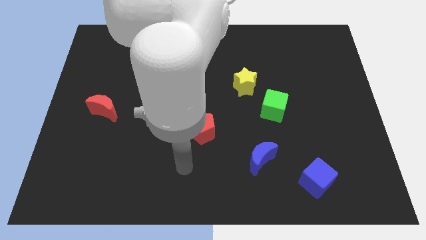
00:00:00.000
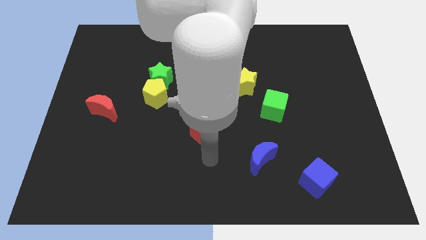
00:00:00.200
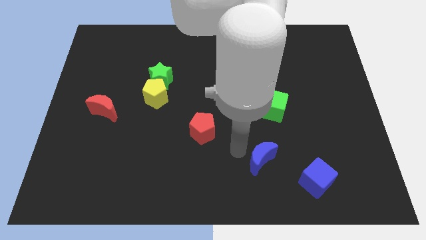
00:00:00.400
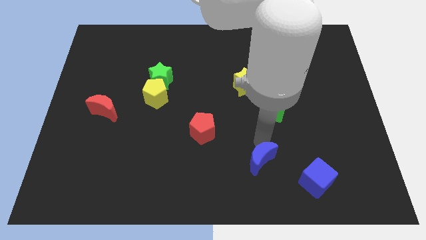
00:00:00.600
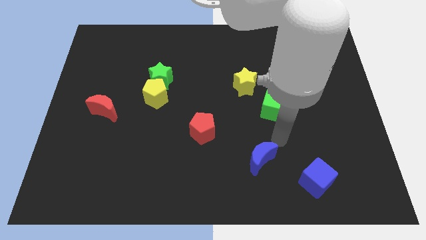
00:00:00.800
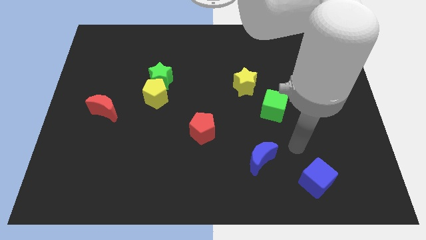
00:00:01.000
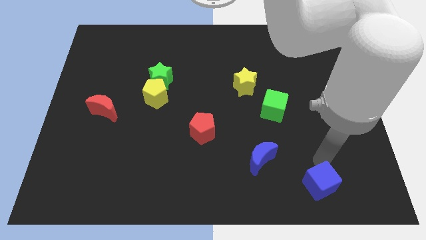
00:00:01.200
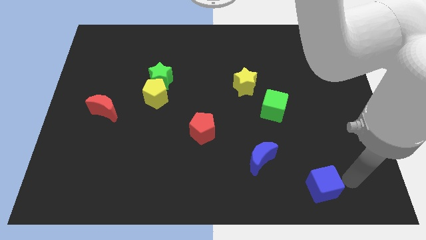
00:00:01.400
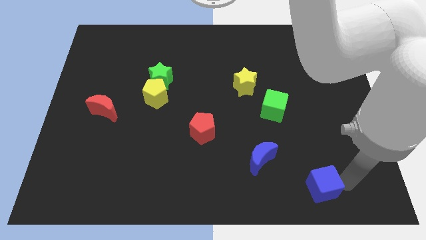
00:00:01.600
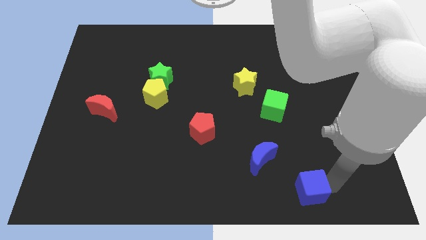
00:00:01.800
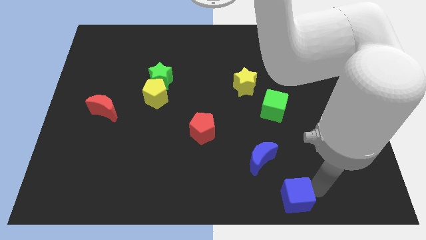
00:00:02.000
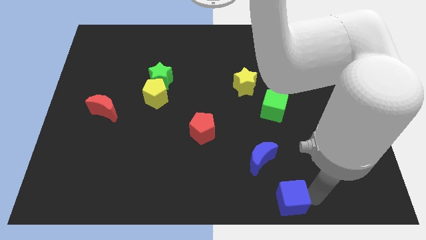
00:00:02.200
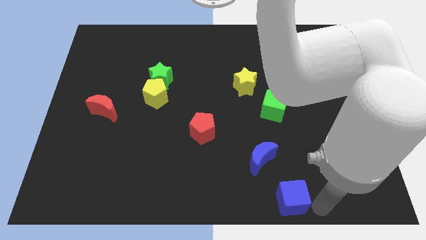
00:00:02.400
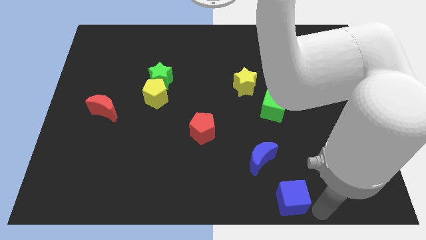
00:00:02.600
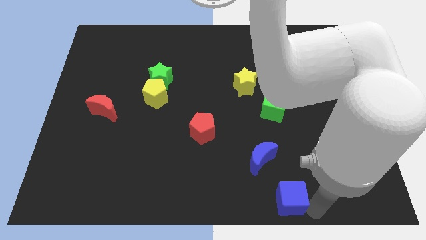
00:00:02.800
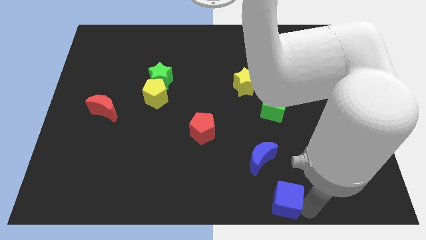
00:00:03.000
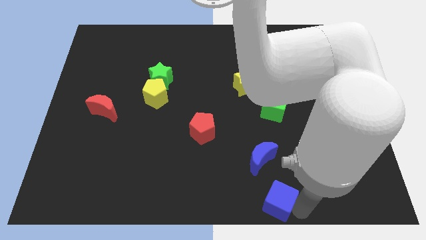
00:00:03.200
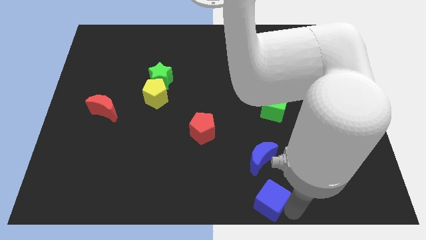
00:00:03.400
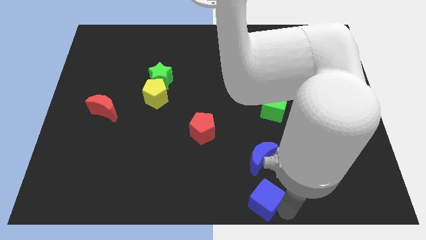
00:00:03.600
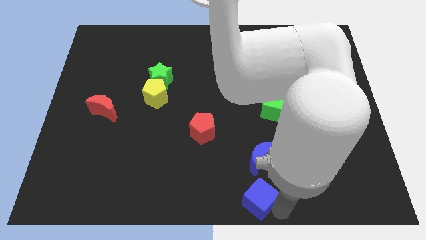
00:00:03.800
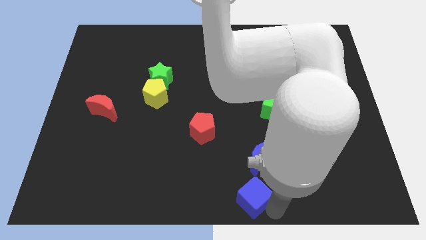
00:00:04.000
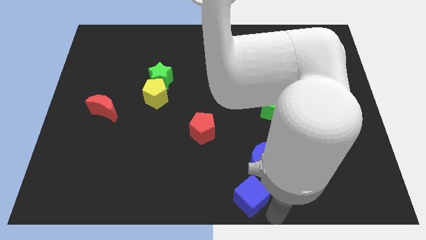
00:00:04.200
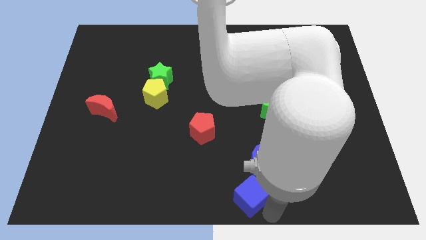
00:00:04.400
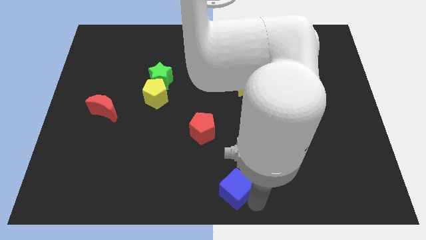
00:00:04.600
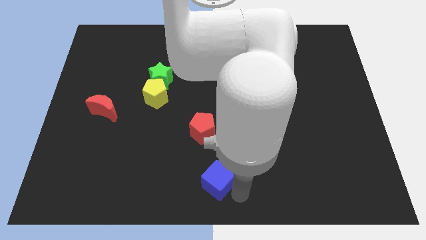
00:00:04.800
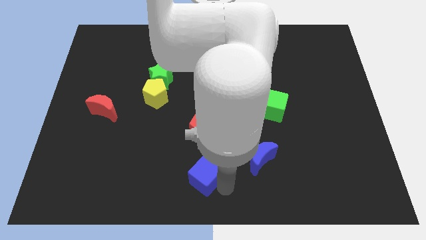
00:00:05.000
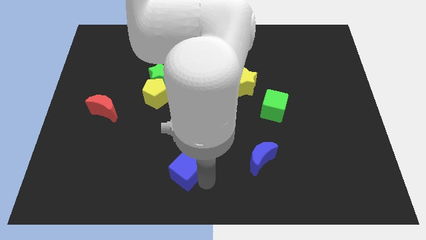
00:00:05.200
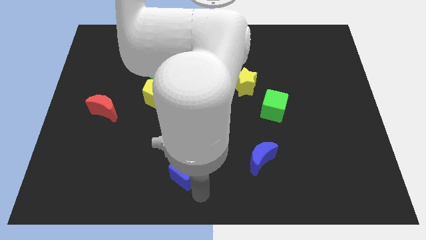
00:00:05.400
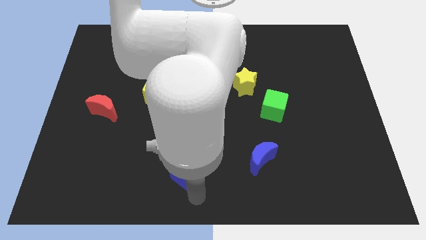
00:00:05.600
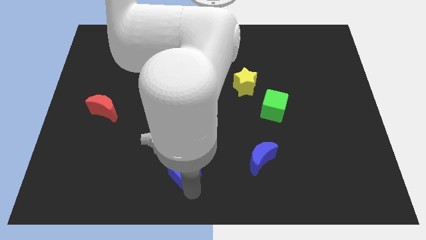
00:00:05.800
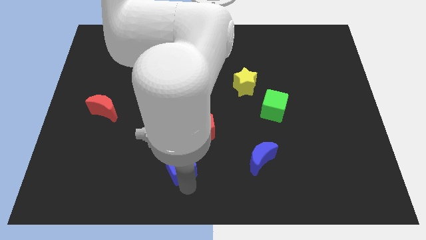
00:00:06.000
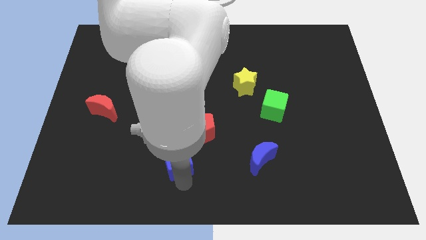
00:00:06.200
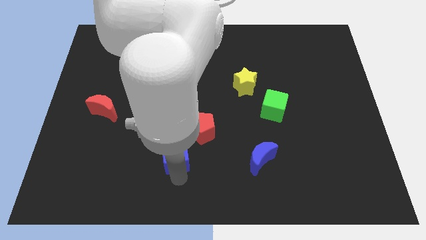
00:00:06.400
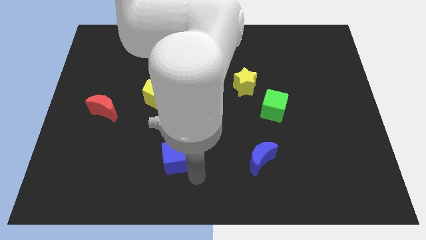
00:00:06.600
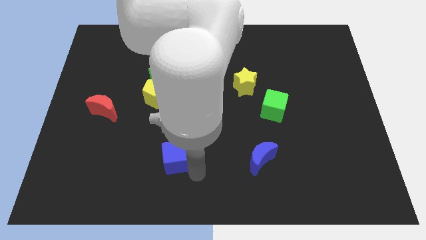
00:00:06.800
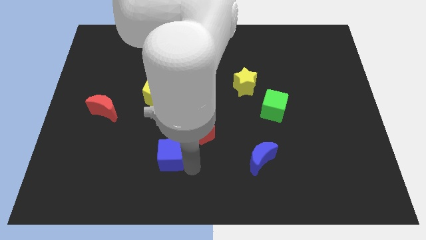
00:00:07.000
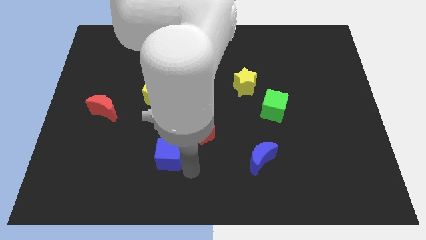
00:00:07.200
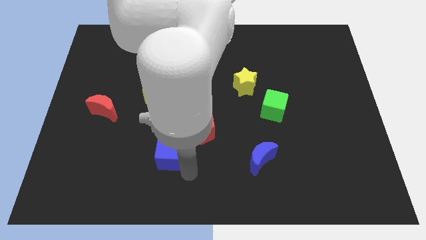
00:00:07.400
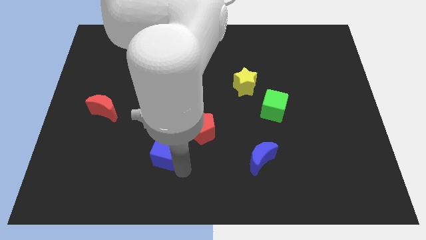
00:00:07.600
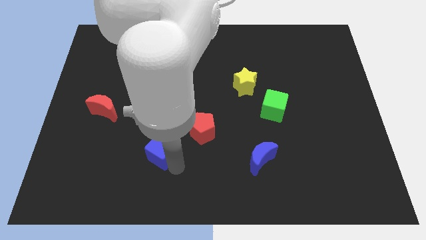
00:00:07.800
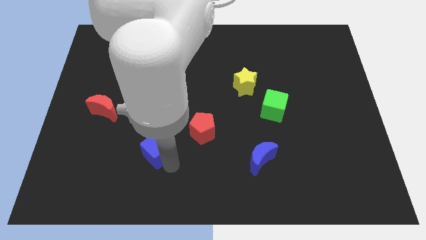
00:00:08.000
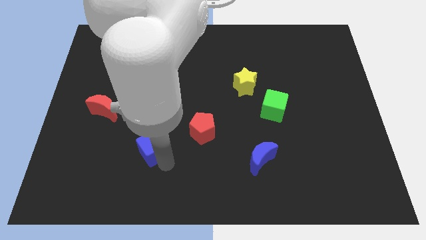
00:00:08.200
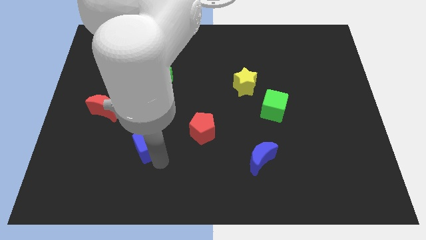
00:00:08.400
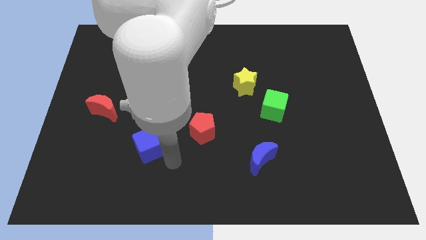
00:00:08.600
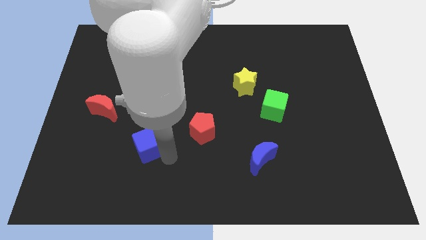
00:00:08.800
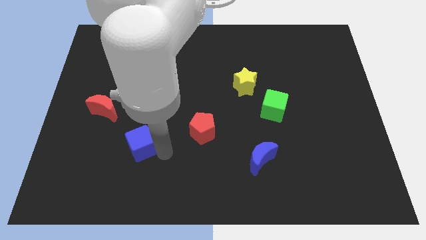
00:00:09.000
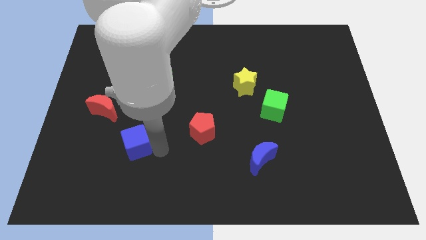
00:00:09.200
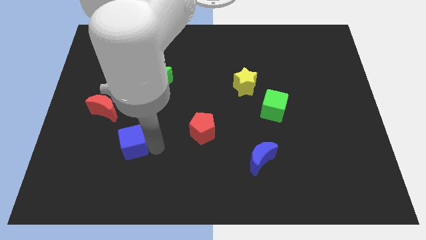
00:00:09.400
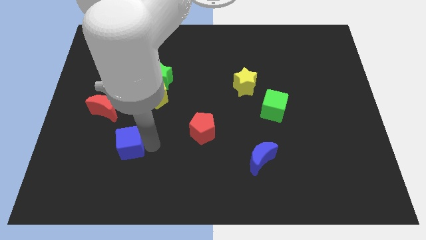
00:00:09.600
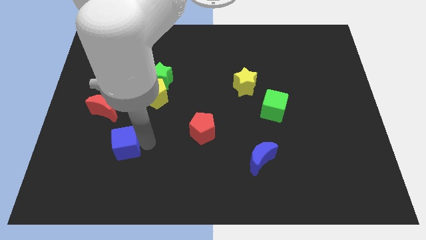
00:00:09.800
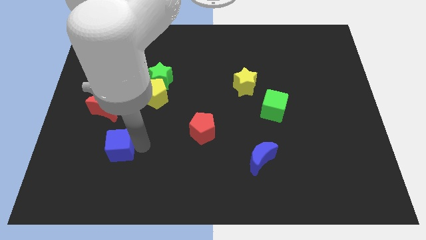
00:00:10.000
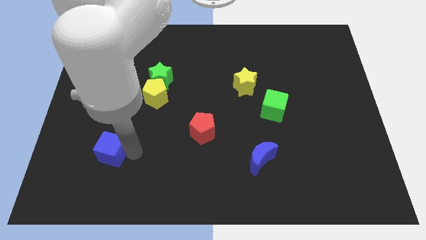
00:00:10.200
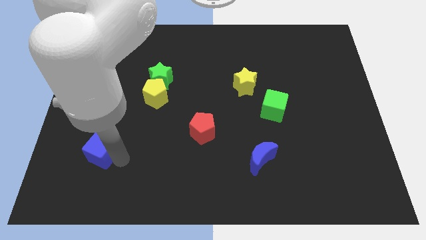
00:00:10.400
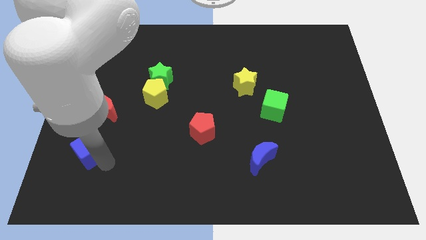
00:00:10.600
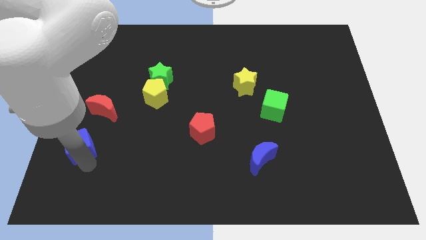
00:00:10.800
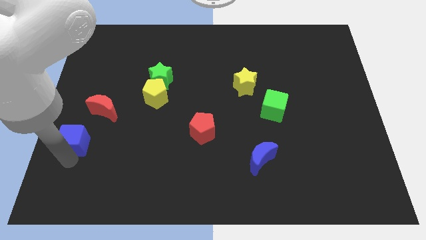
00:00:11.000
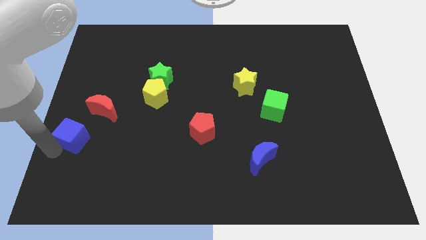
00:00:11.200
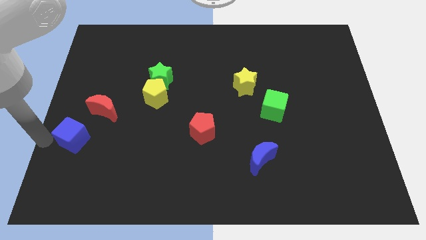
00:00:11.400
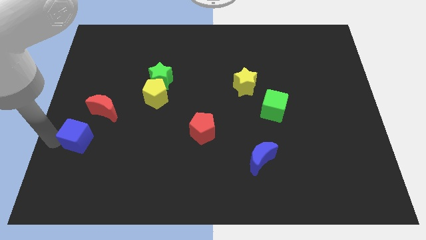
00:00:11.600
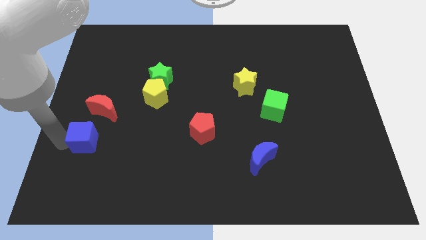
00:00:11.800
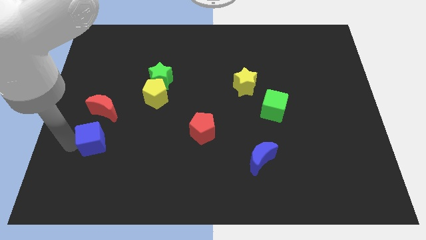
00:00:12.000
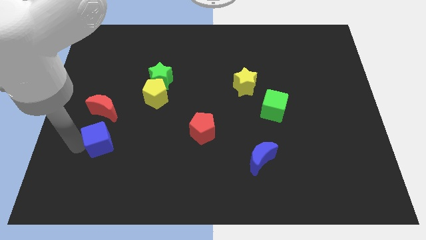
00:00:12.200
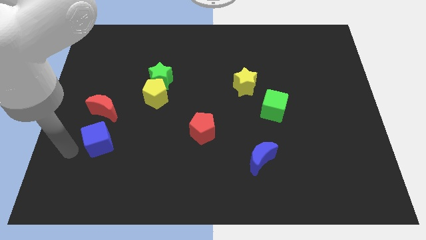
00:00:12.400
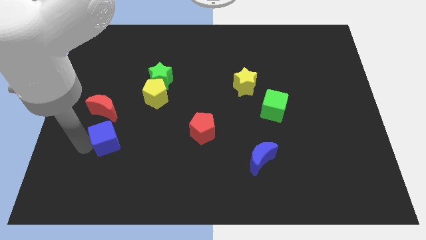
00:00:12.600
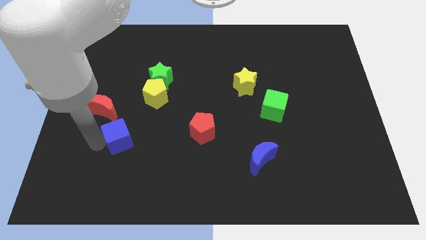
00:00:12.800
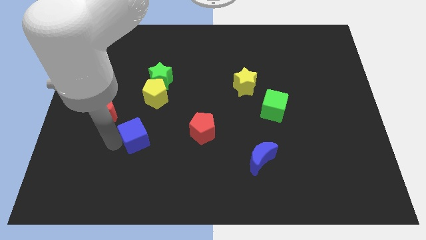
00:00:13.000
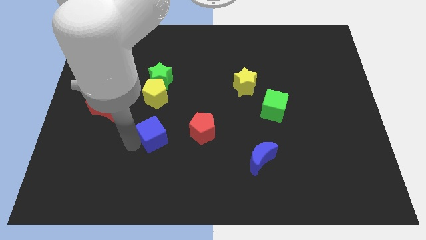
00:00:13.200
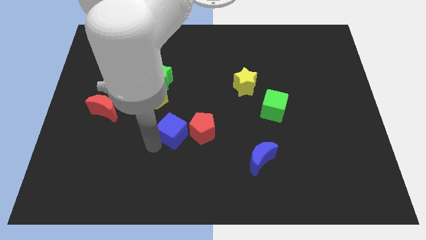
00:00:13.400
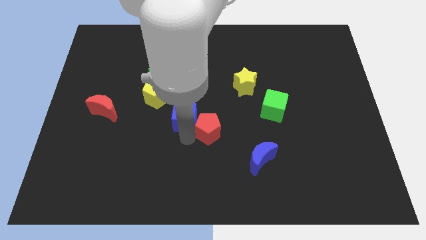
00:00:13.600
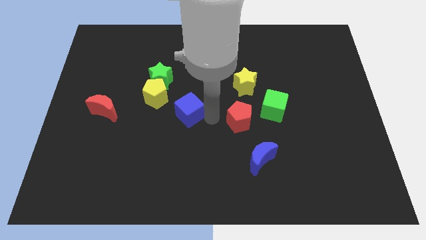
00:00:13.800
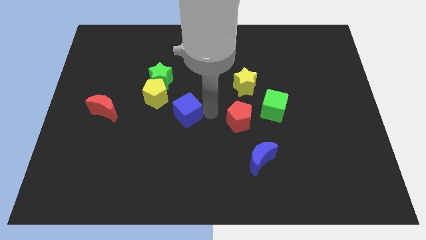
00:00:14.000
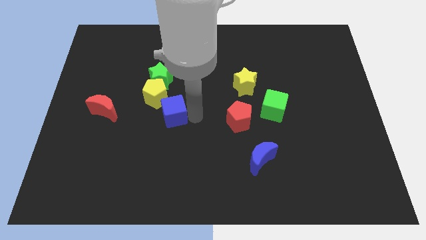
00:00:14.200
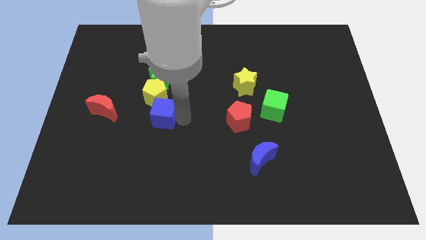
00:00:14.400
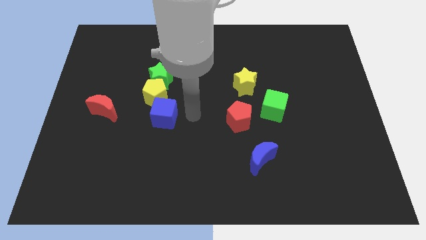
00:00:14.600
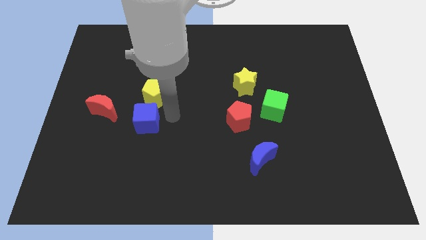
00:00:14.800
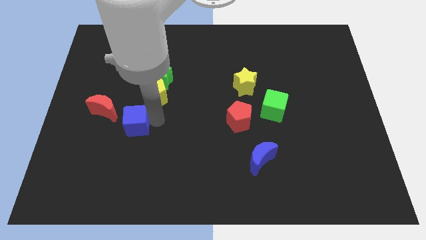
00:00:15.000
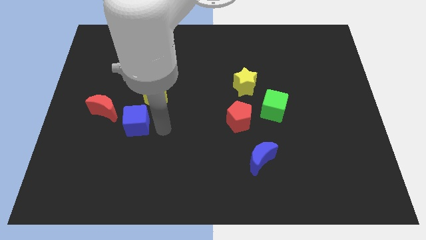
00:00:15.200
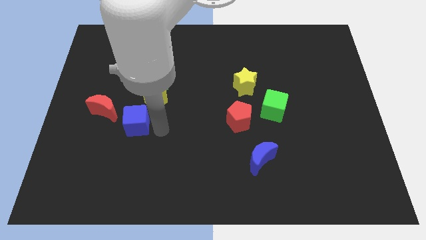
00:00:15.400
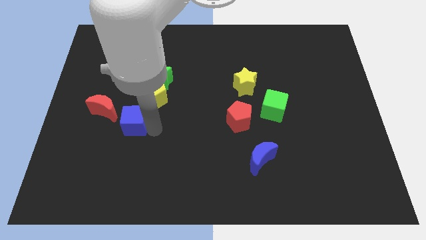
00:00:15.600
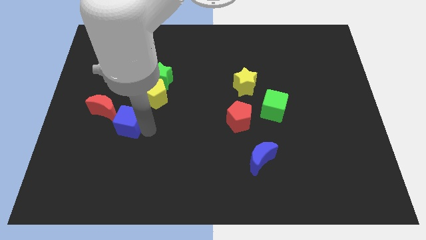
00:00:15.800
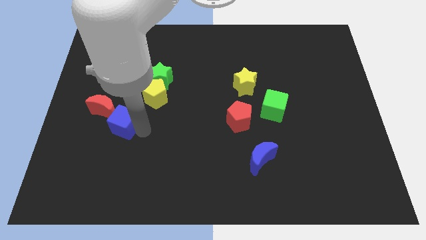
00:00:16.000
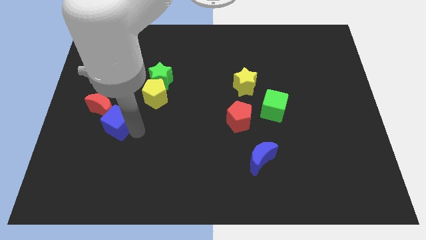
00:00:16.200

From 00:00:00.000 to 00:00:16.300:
put the blue cube next to the red moon
